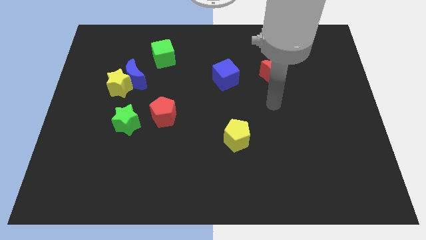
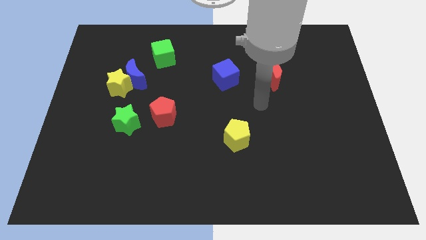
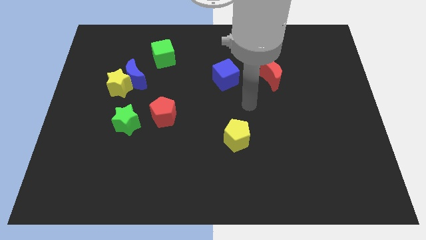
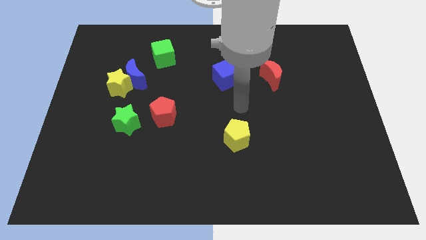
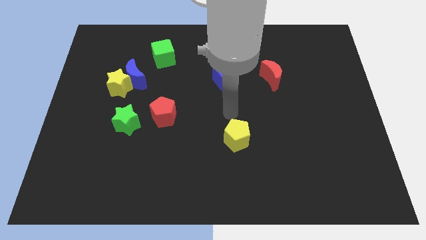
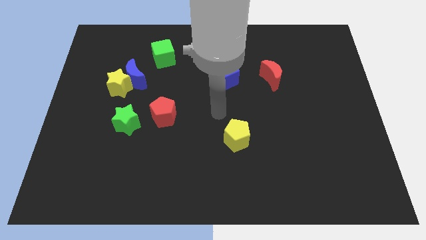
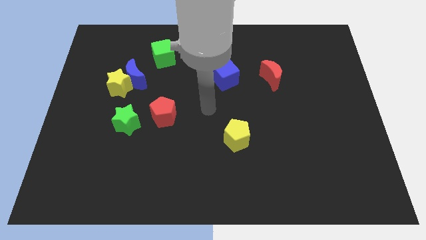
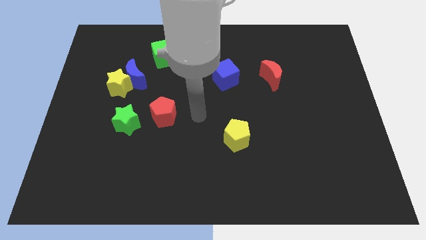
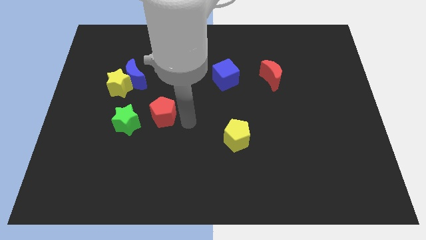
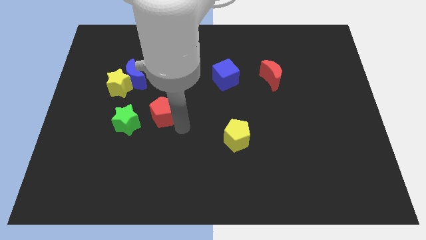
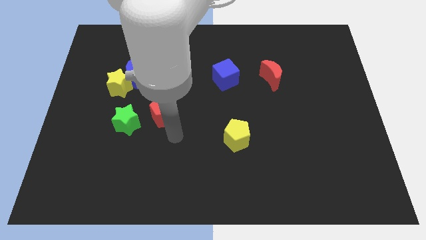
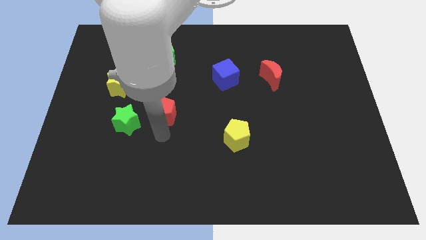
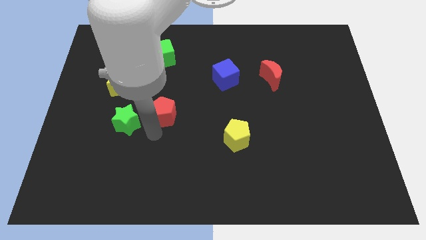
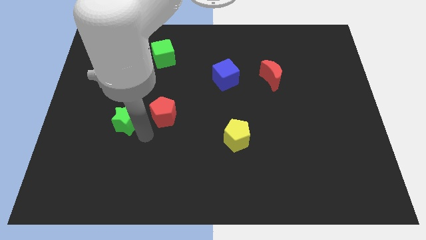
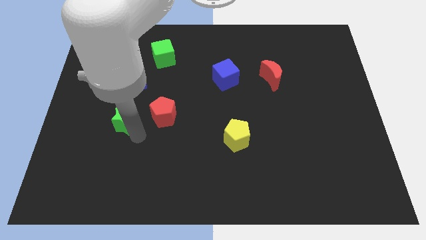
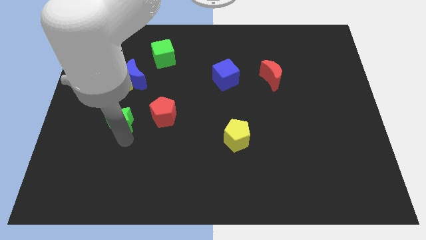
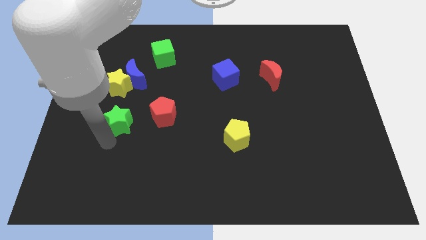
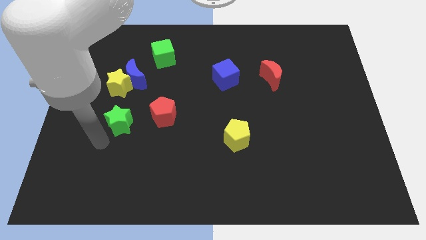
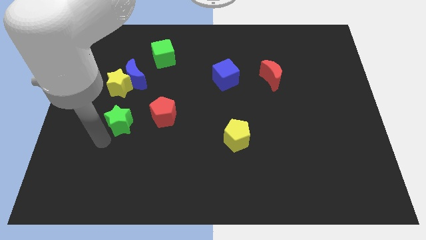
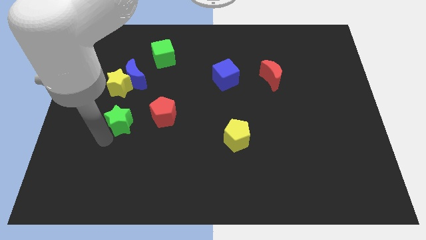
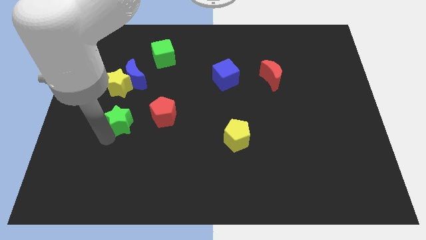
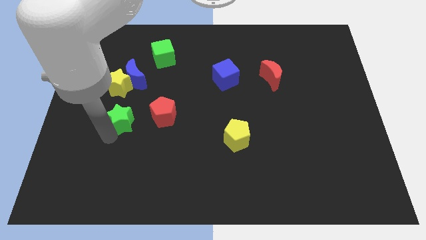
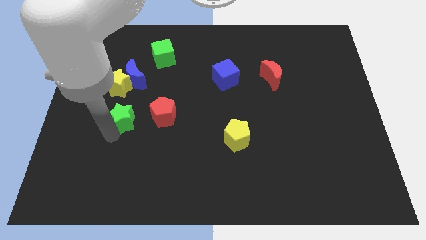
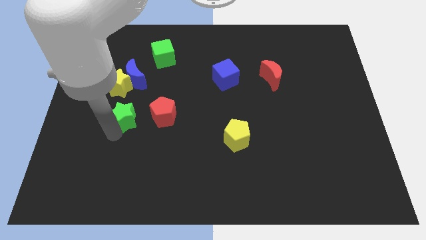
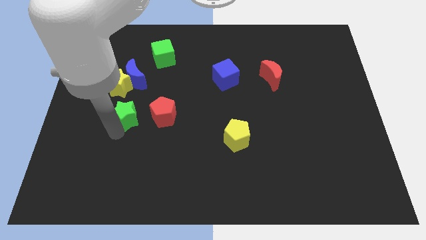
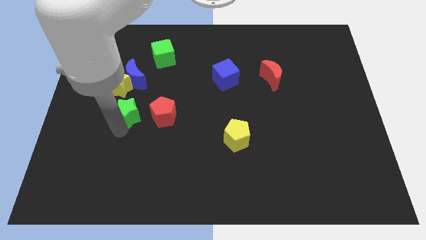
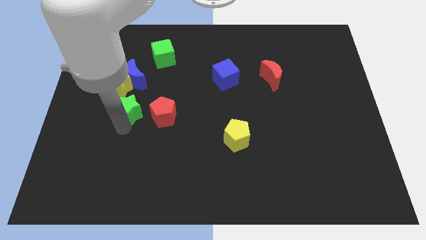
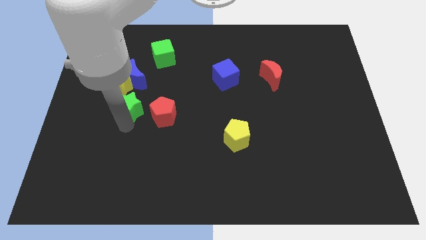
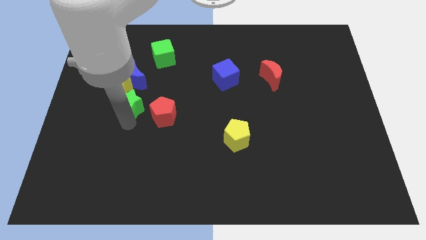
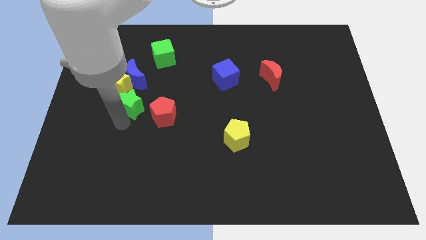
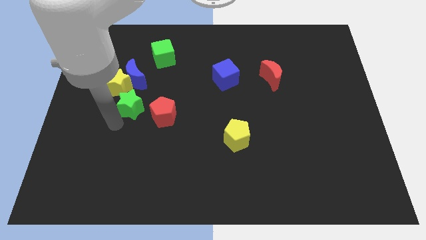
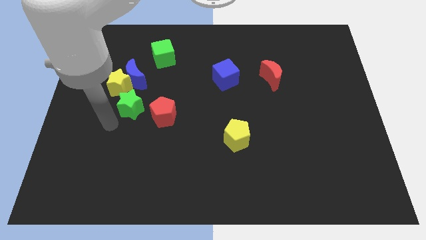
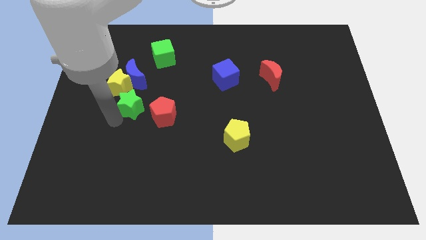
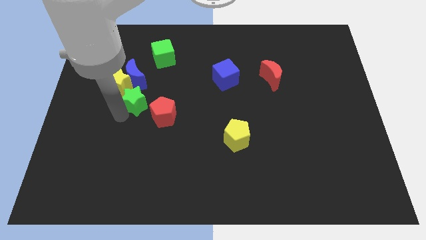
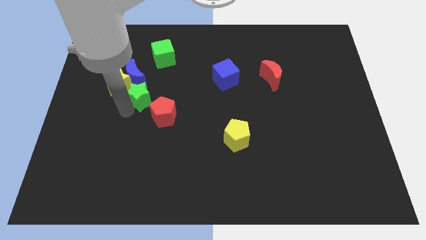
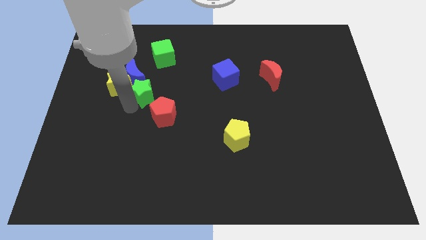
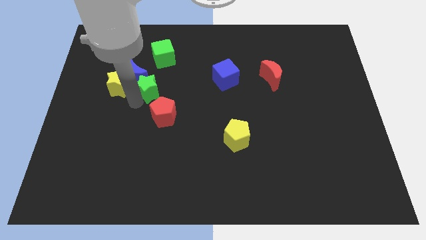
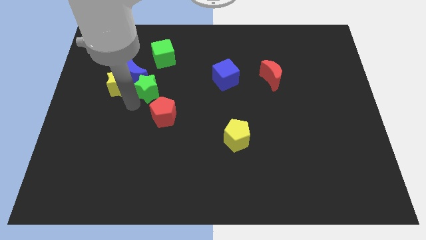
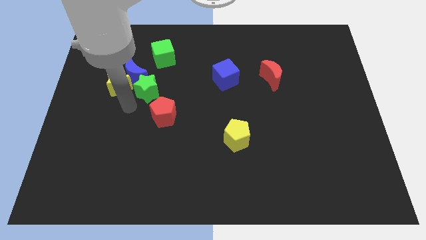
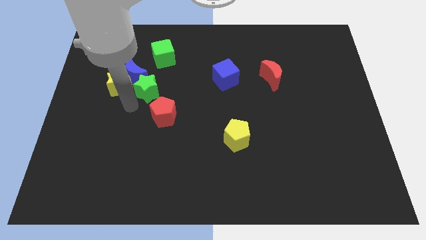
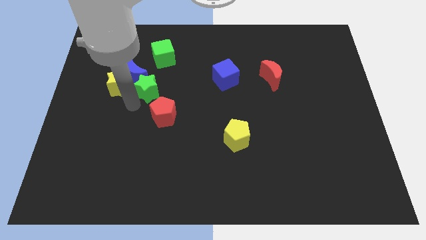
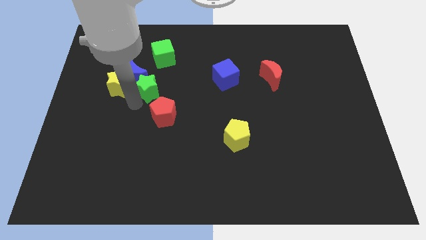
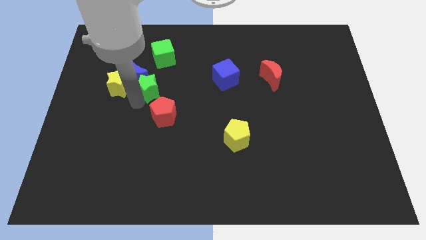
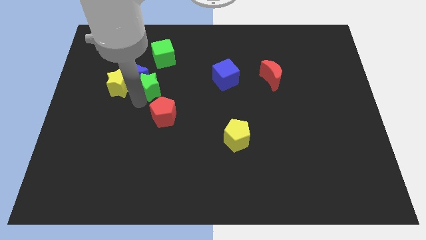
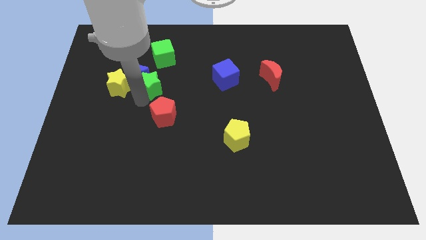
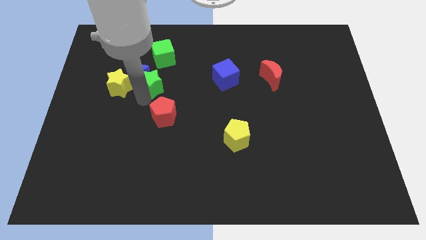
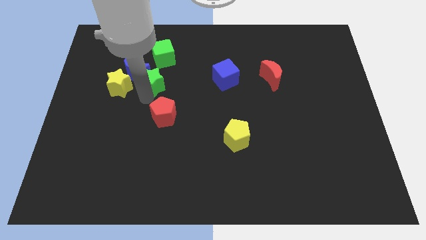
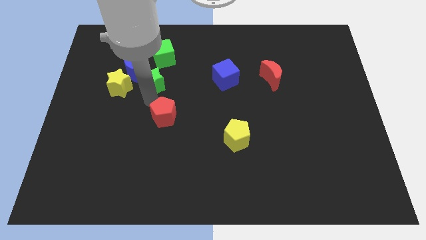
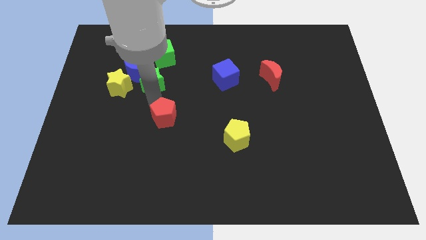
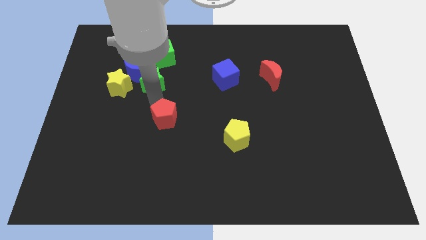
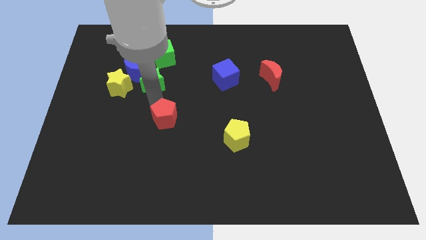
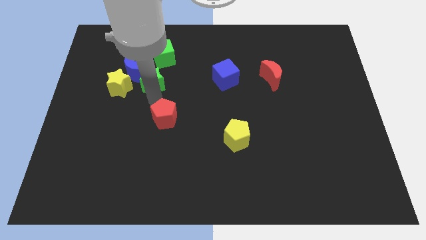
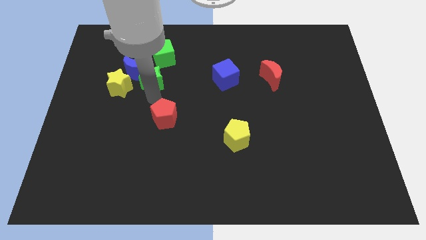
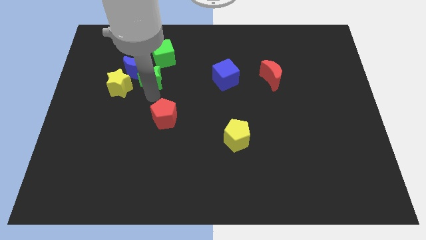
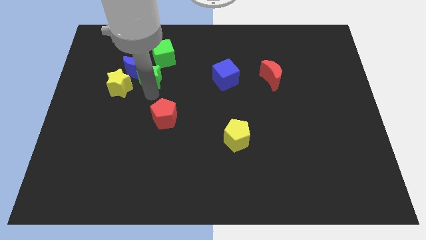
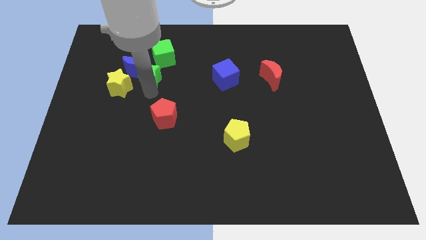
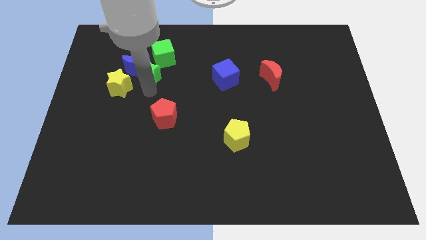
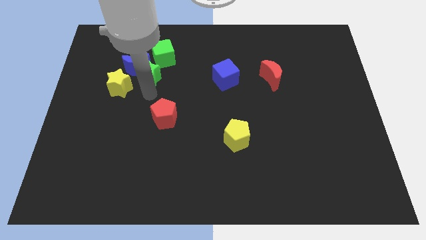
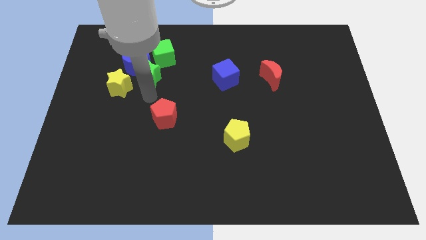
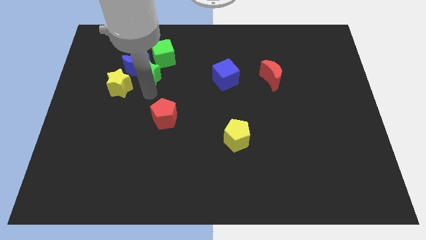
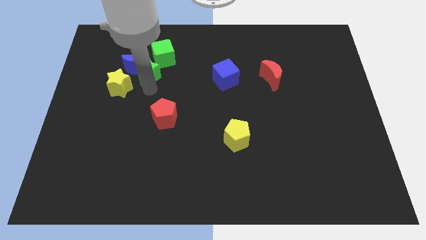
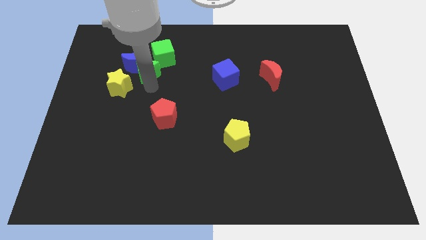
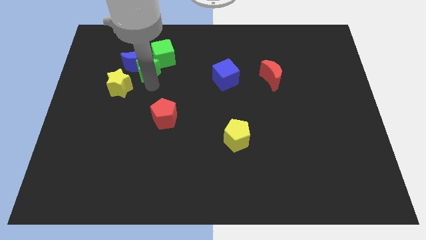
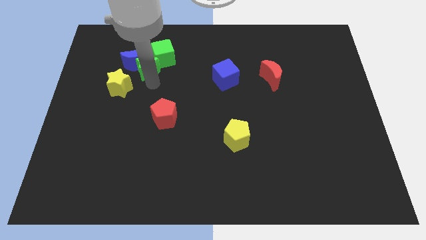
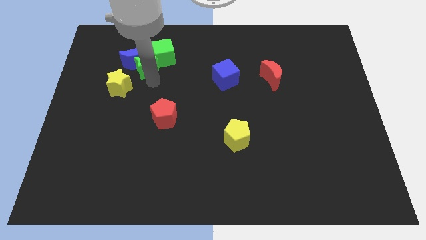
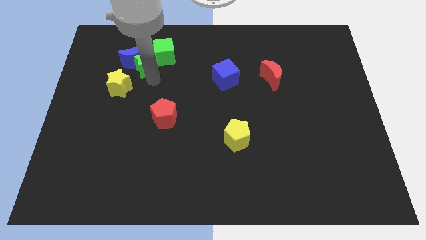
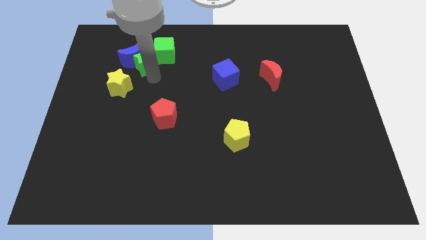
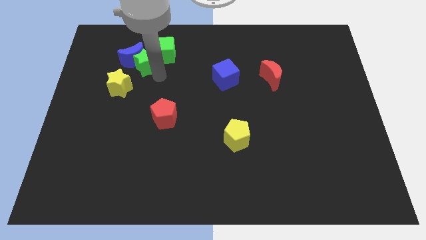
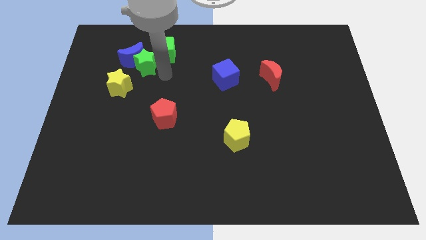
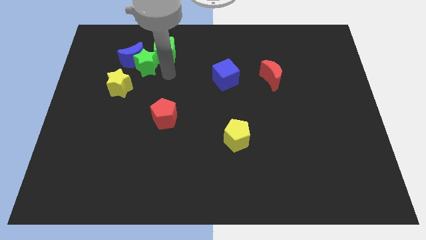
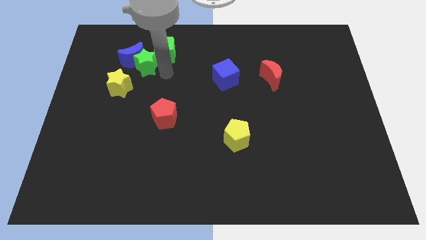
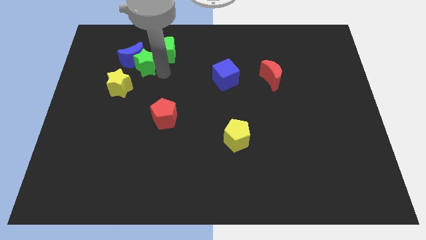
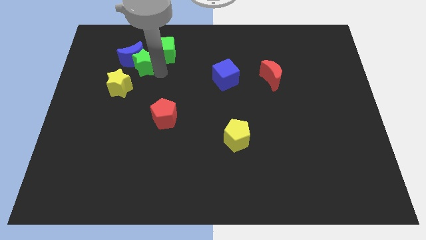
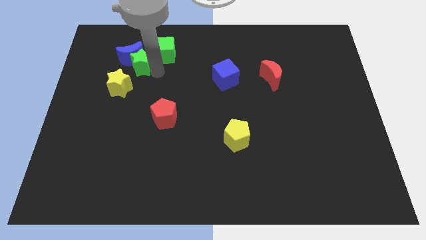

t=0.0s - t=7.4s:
move the green star to the top side of the yellow star
